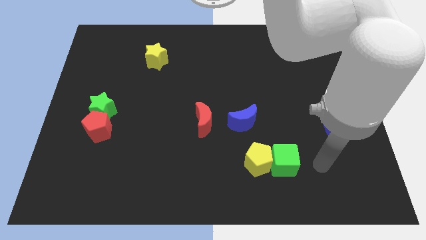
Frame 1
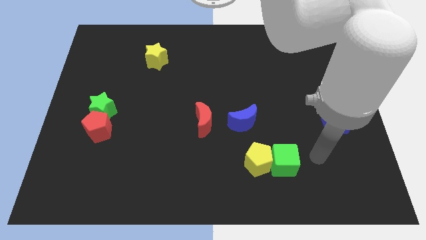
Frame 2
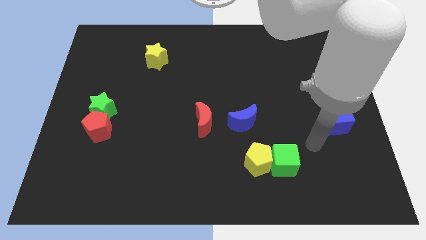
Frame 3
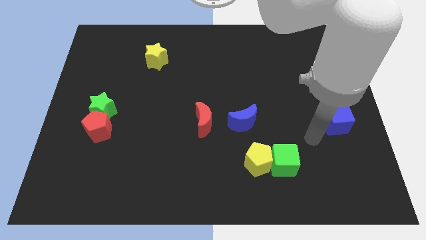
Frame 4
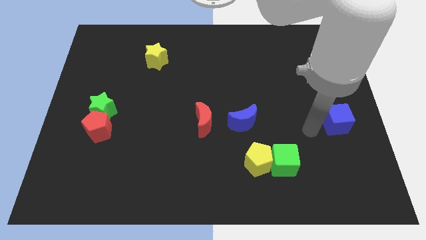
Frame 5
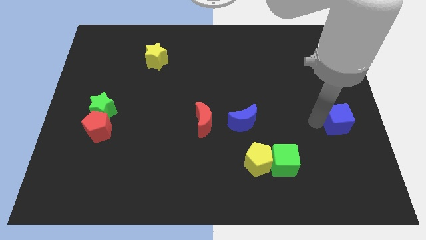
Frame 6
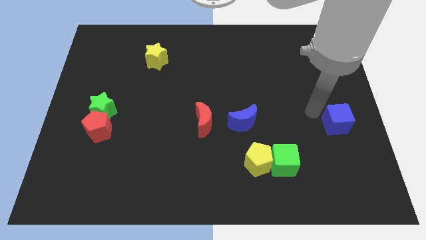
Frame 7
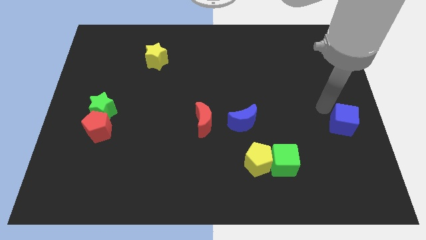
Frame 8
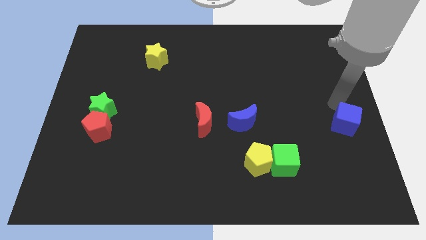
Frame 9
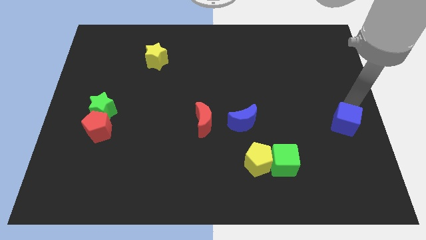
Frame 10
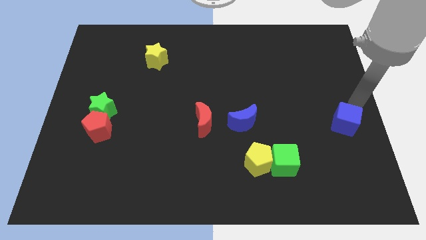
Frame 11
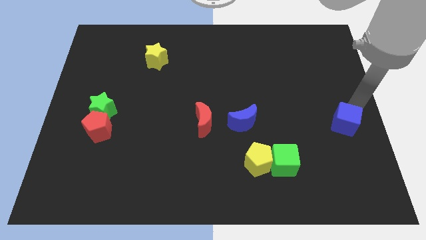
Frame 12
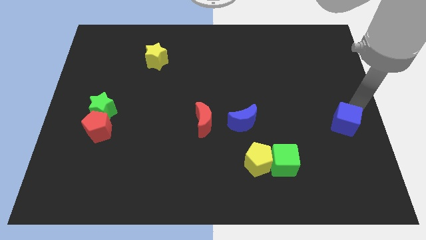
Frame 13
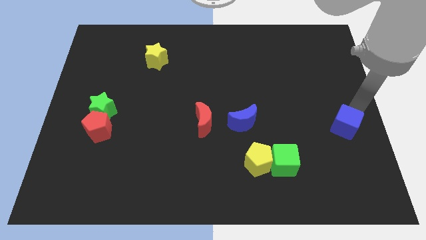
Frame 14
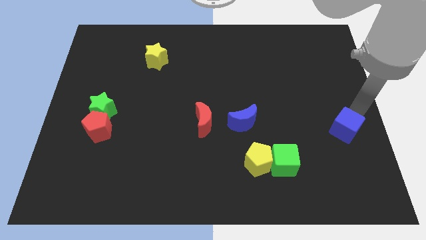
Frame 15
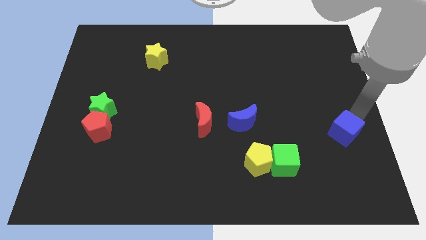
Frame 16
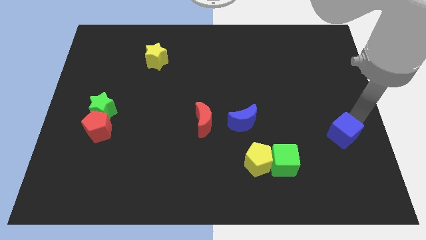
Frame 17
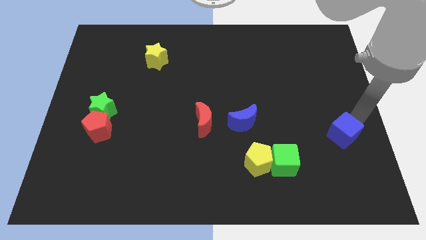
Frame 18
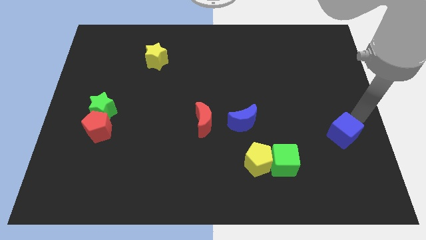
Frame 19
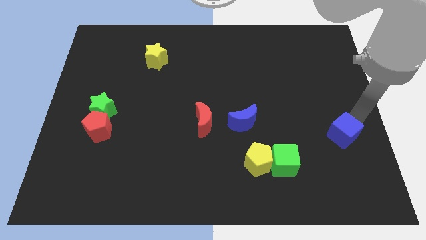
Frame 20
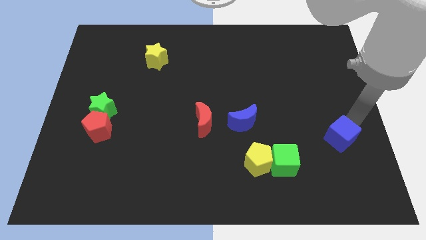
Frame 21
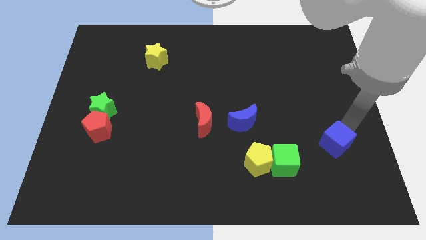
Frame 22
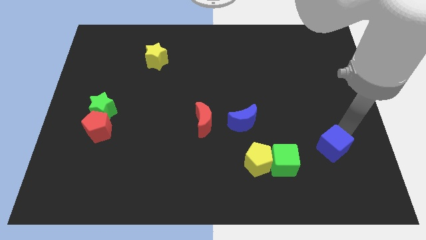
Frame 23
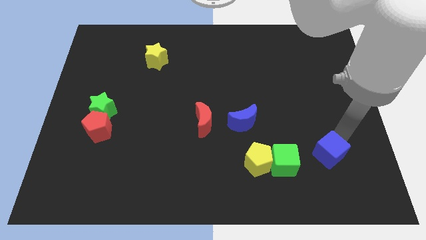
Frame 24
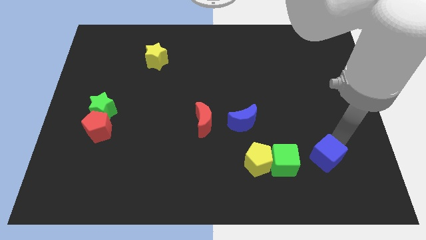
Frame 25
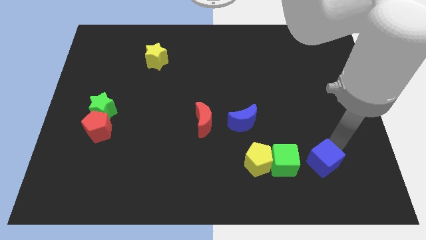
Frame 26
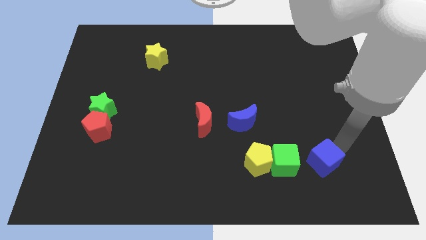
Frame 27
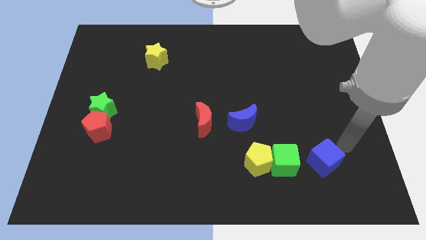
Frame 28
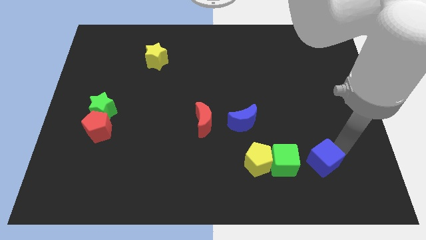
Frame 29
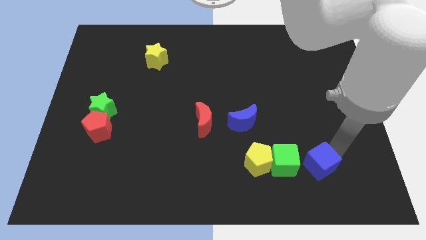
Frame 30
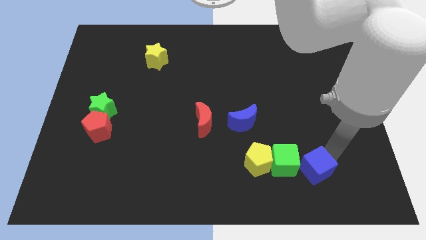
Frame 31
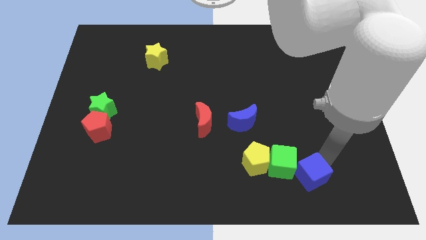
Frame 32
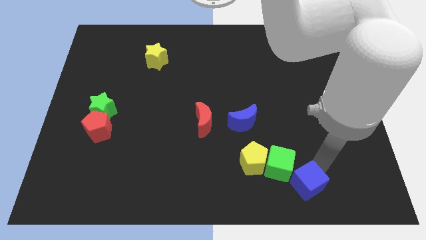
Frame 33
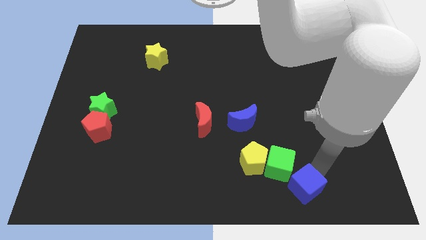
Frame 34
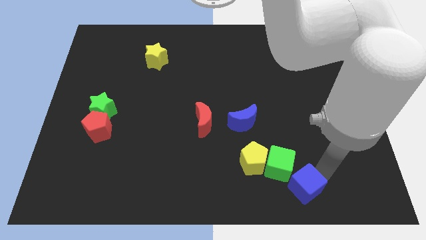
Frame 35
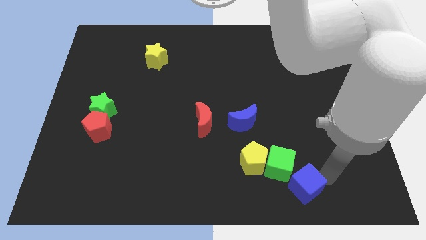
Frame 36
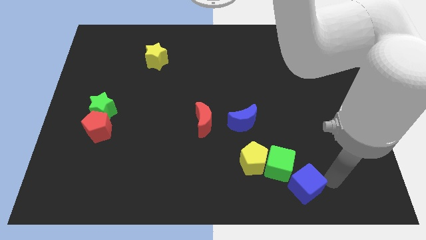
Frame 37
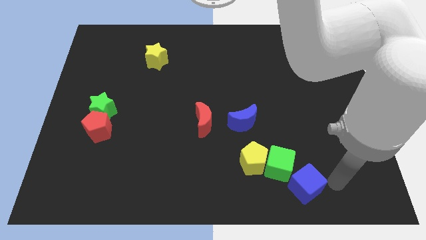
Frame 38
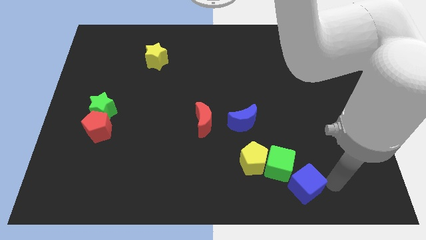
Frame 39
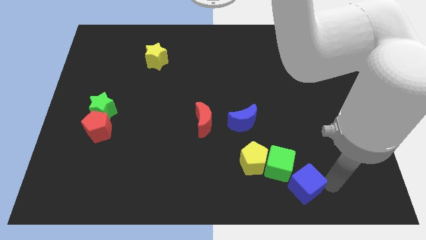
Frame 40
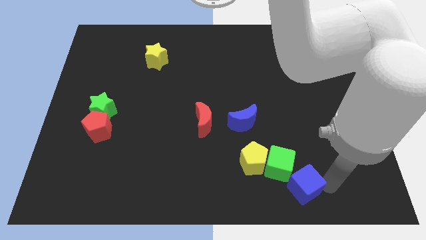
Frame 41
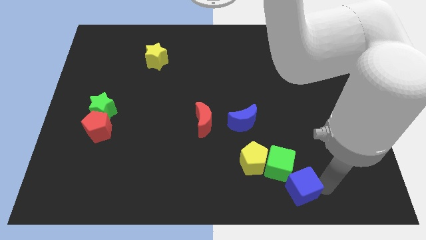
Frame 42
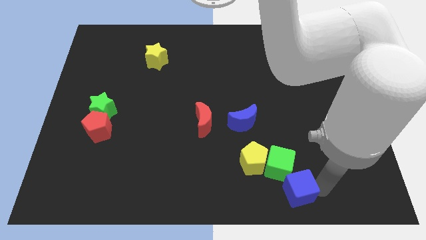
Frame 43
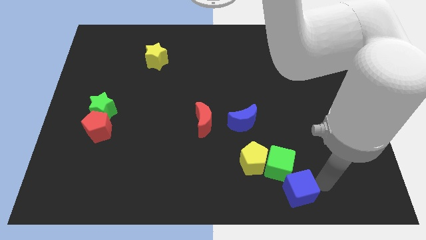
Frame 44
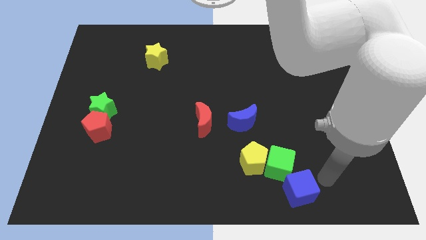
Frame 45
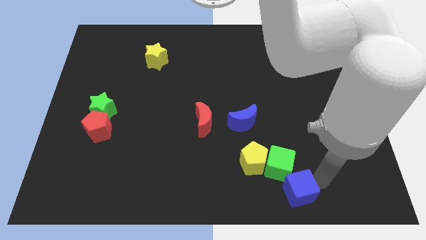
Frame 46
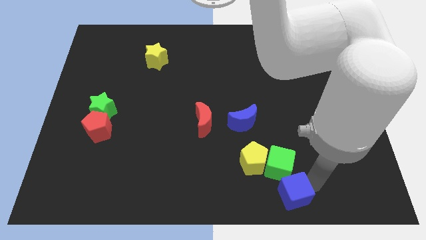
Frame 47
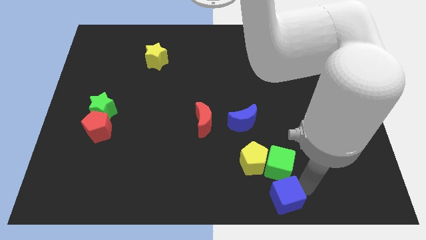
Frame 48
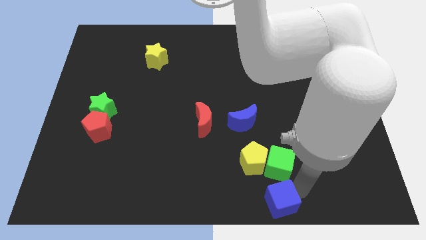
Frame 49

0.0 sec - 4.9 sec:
slide the blue cube to the bottom

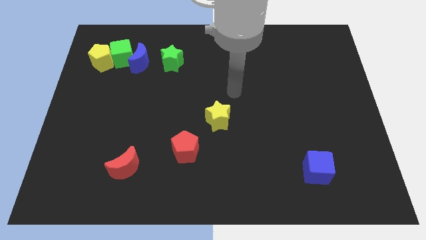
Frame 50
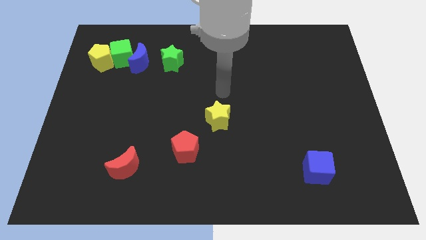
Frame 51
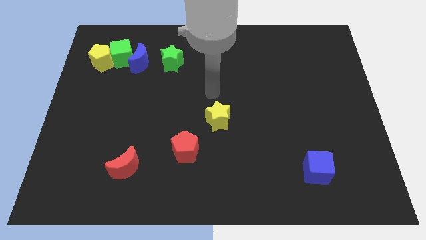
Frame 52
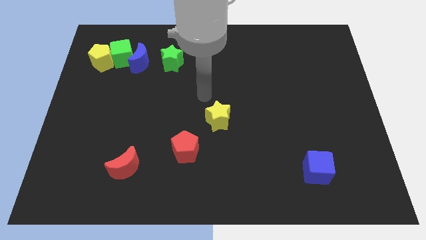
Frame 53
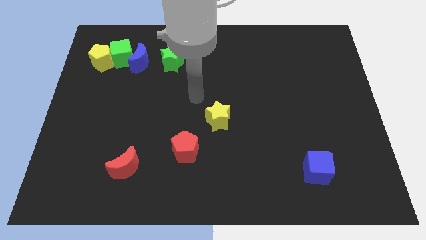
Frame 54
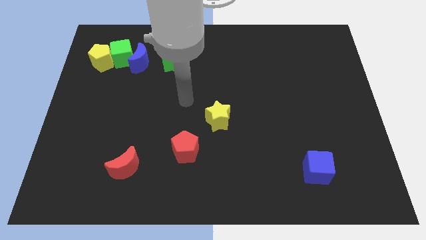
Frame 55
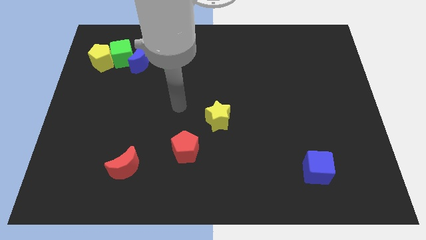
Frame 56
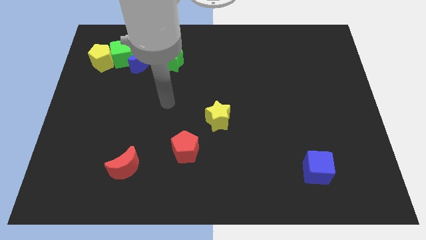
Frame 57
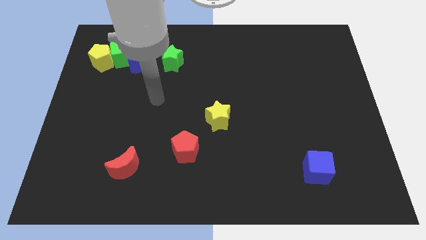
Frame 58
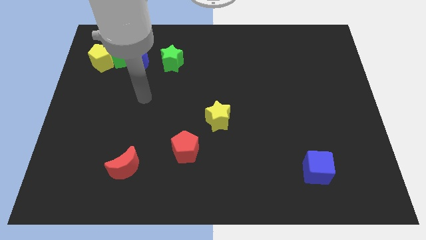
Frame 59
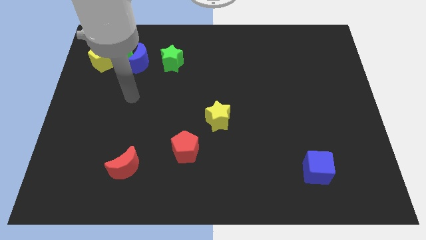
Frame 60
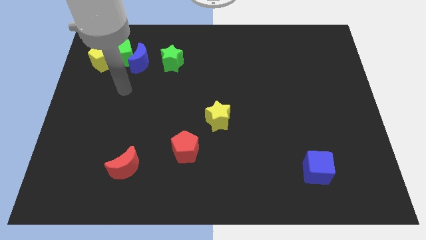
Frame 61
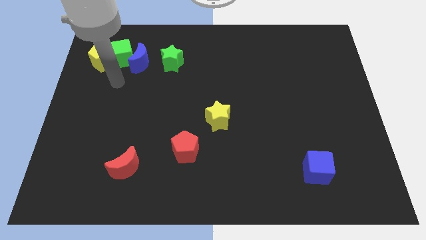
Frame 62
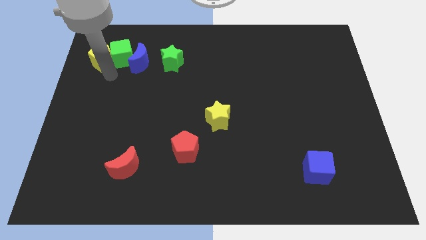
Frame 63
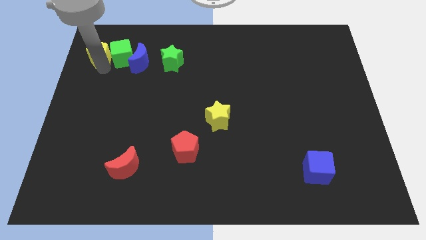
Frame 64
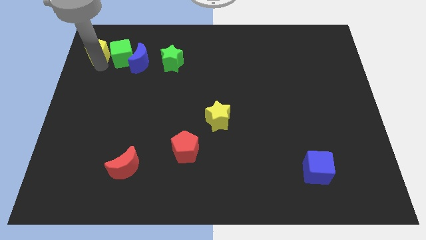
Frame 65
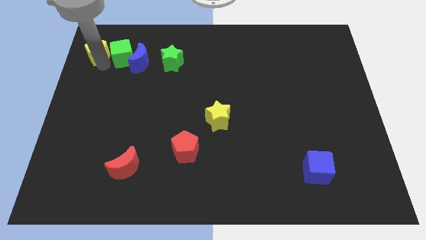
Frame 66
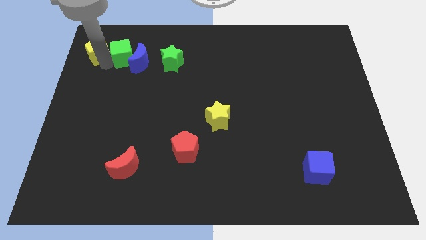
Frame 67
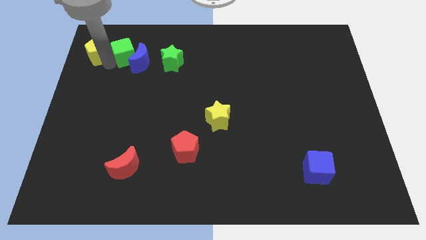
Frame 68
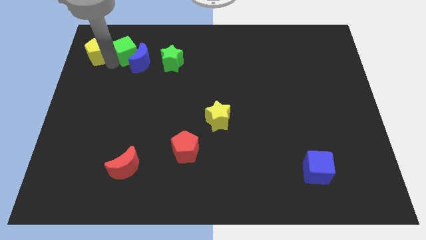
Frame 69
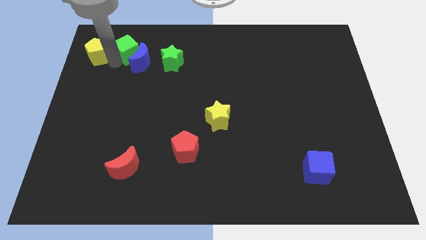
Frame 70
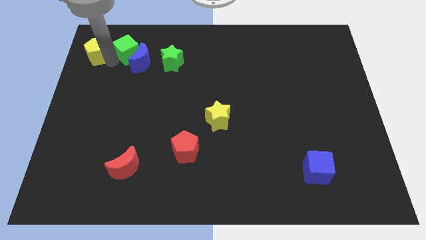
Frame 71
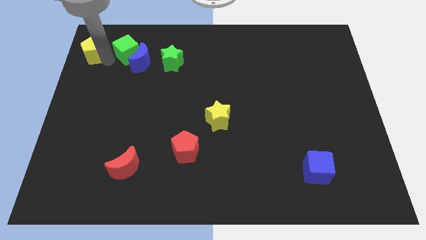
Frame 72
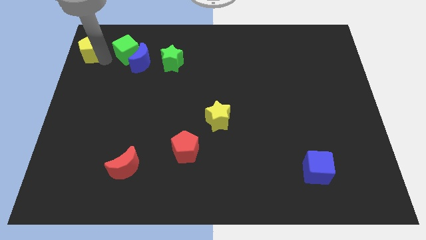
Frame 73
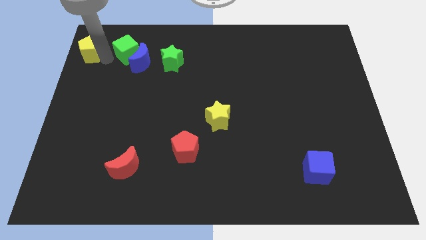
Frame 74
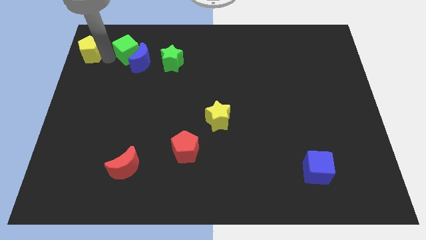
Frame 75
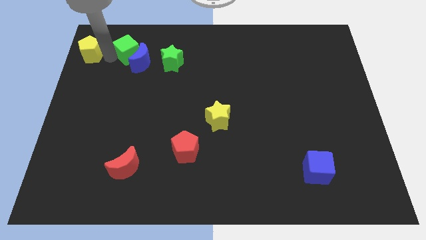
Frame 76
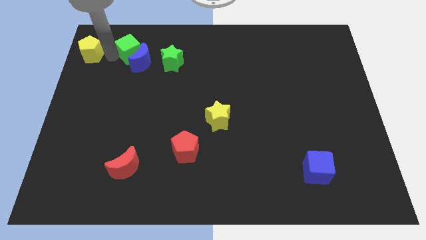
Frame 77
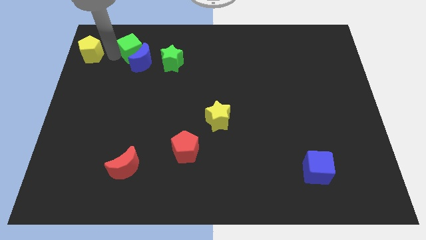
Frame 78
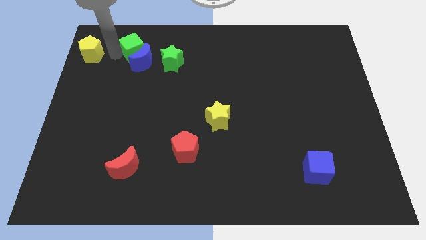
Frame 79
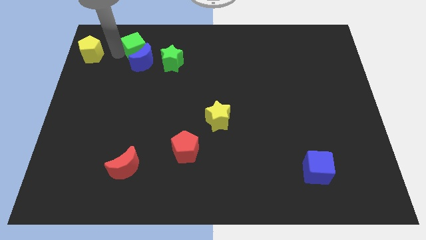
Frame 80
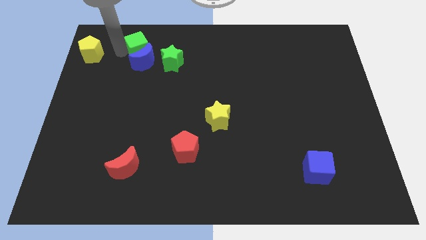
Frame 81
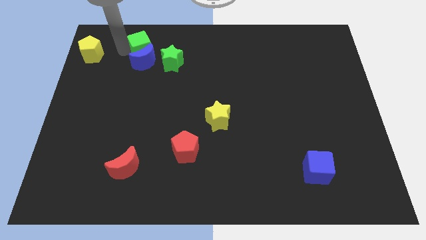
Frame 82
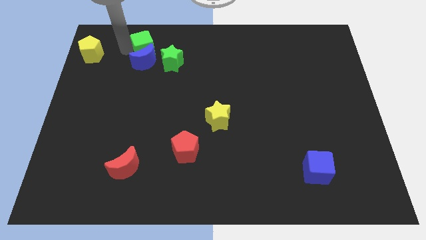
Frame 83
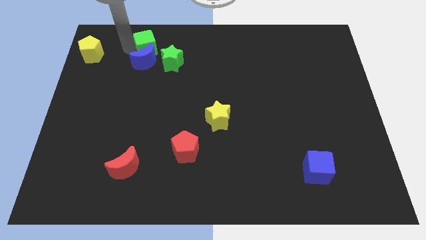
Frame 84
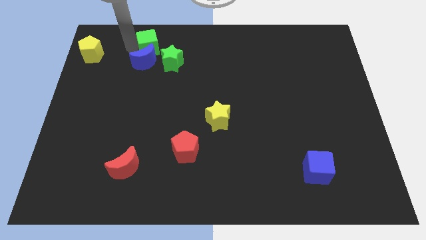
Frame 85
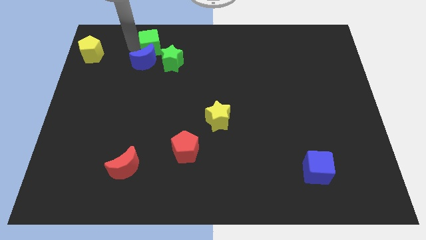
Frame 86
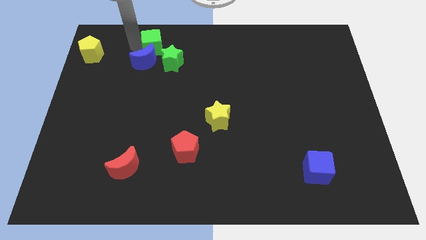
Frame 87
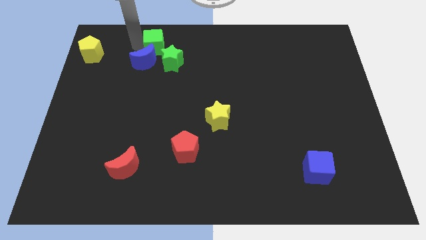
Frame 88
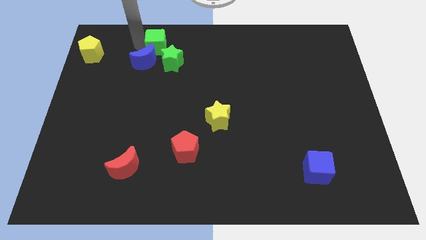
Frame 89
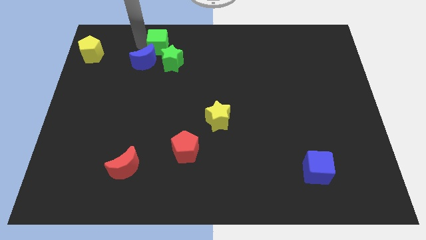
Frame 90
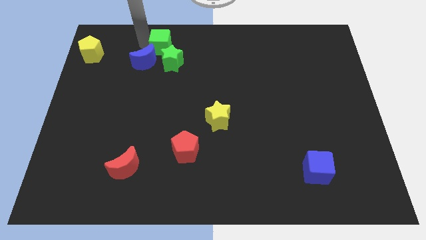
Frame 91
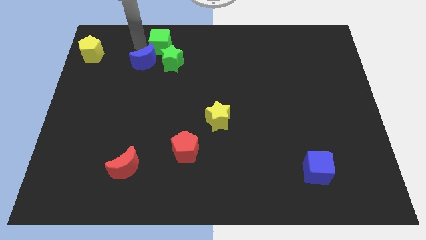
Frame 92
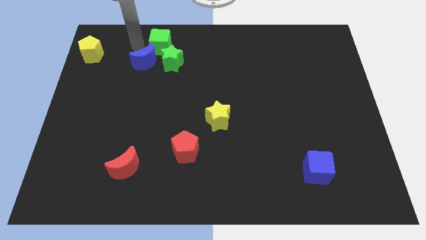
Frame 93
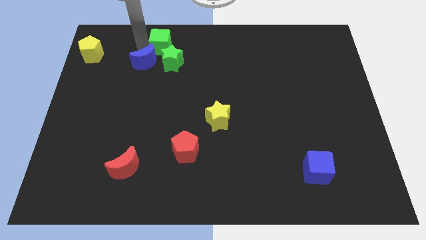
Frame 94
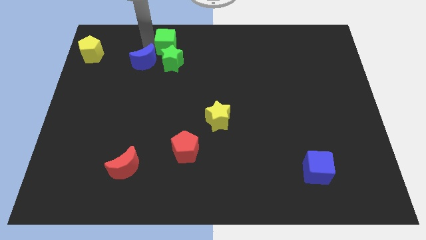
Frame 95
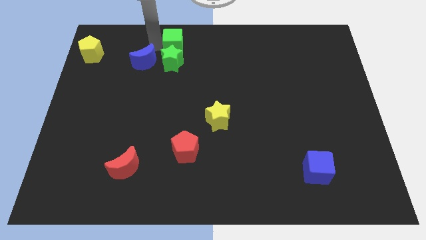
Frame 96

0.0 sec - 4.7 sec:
slide the green cube to the top
